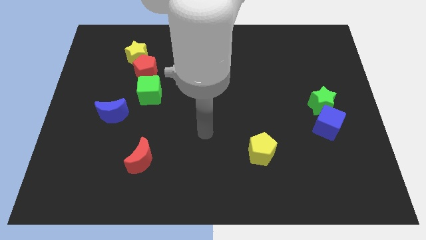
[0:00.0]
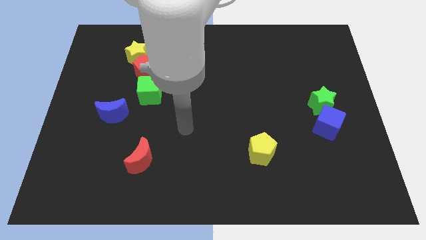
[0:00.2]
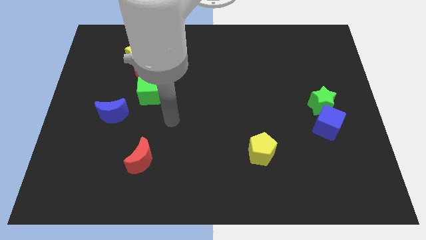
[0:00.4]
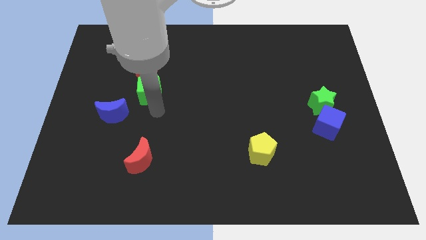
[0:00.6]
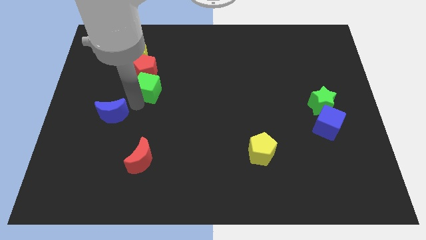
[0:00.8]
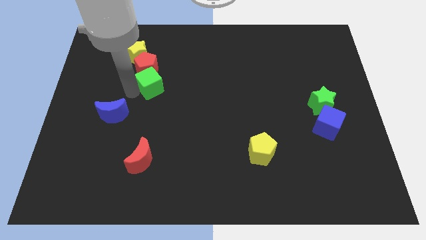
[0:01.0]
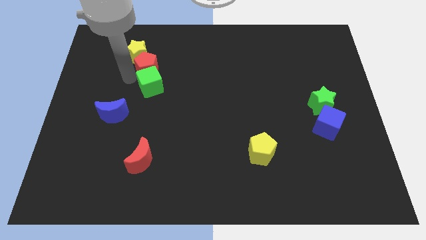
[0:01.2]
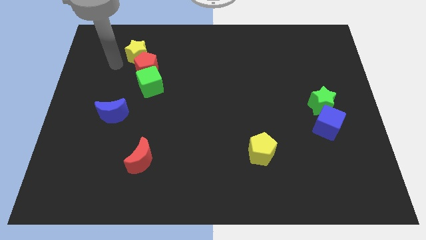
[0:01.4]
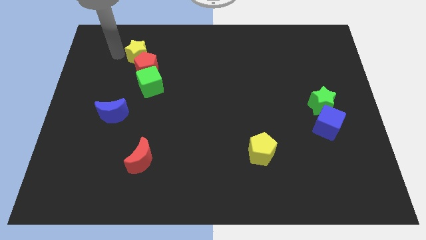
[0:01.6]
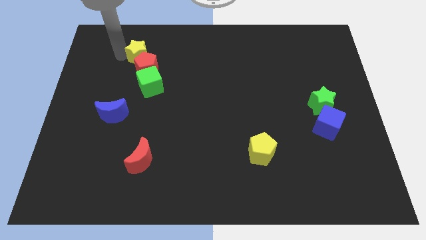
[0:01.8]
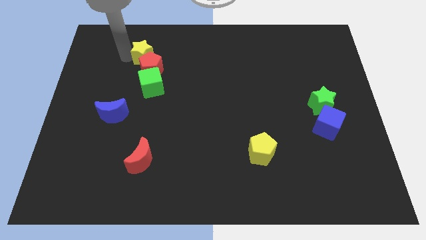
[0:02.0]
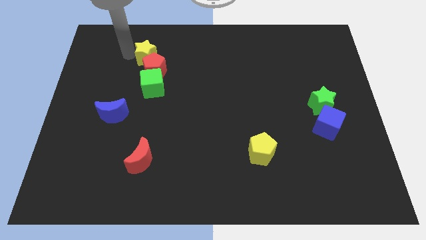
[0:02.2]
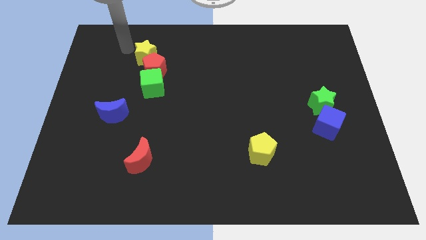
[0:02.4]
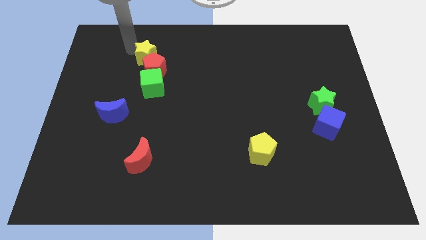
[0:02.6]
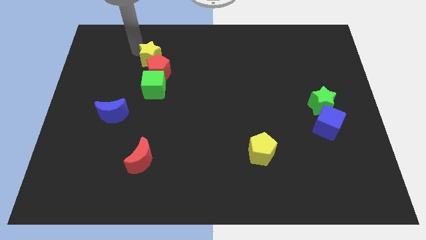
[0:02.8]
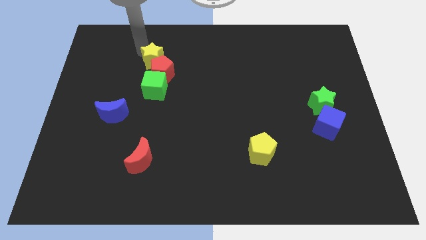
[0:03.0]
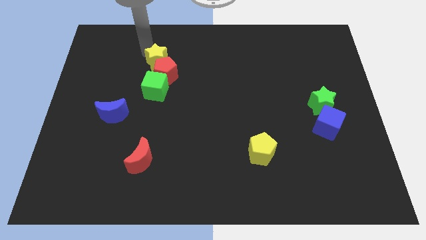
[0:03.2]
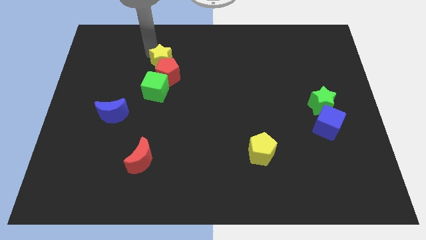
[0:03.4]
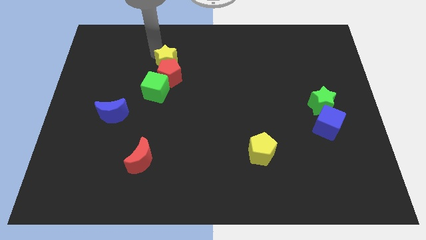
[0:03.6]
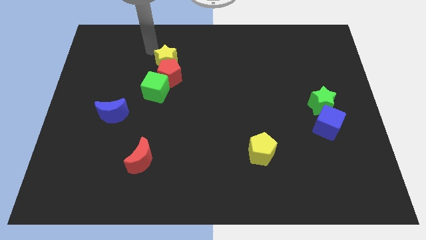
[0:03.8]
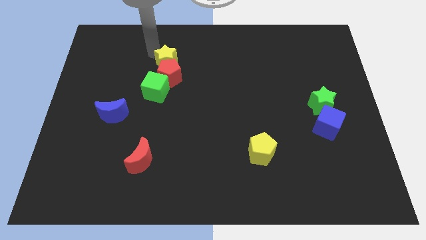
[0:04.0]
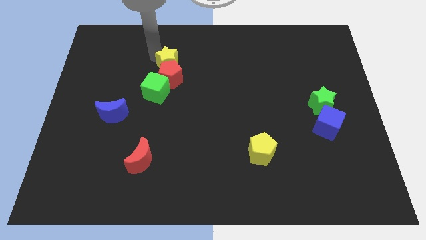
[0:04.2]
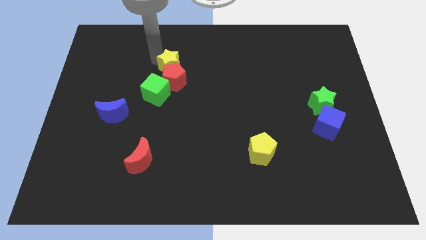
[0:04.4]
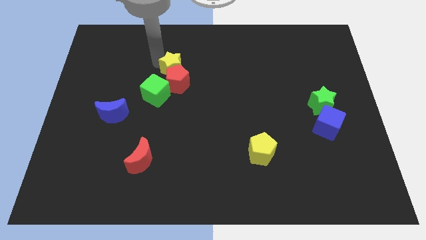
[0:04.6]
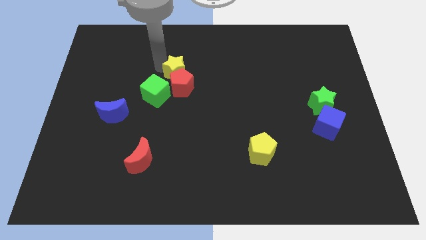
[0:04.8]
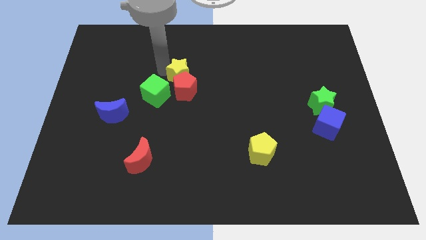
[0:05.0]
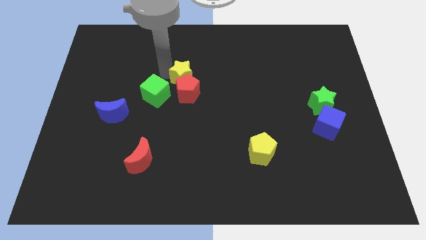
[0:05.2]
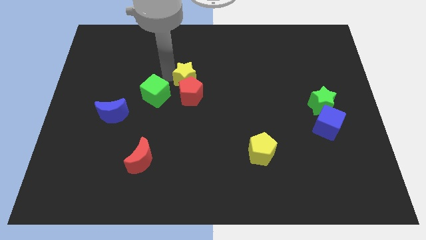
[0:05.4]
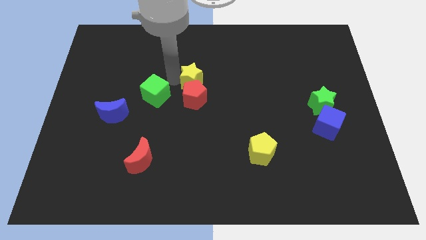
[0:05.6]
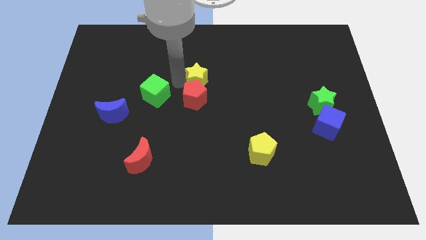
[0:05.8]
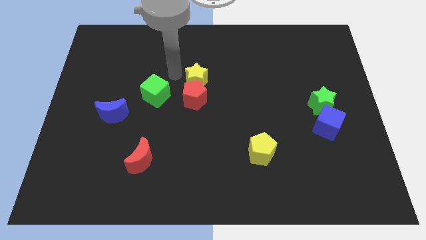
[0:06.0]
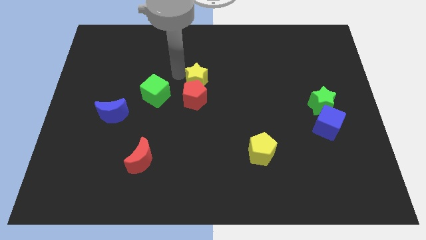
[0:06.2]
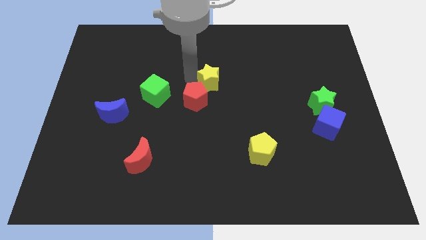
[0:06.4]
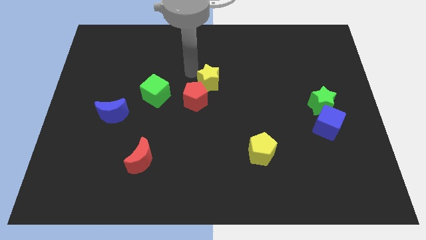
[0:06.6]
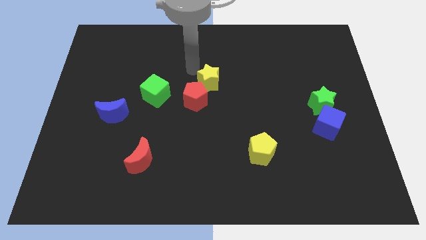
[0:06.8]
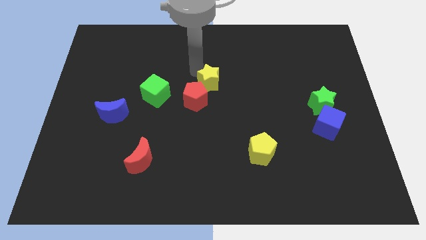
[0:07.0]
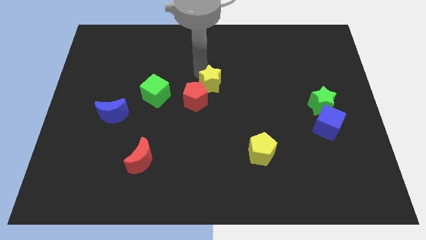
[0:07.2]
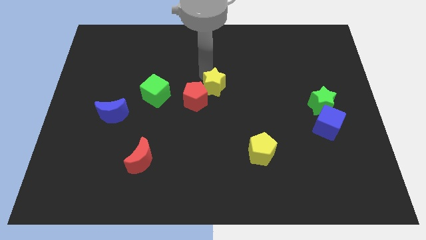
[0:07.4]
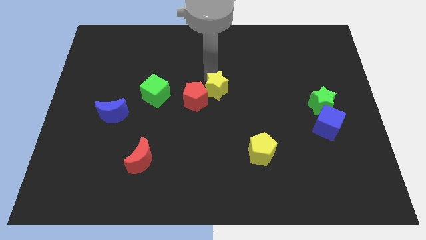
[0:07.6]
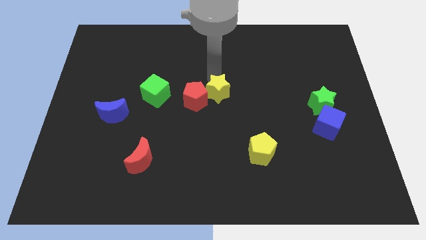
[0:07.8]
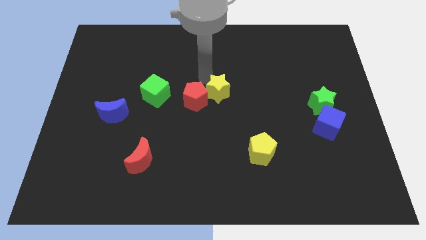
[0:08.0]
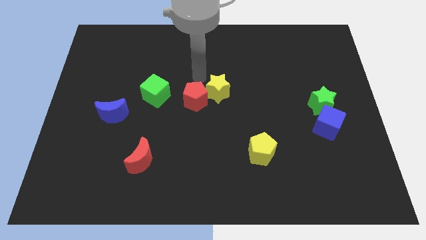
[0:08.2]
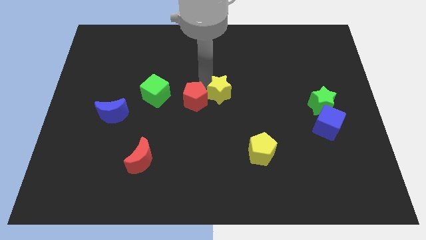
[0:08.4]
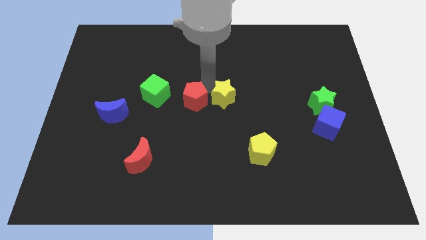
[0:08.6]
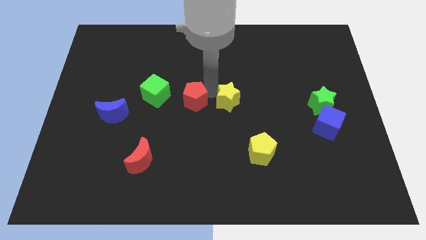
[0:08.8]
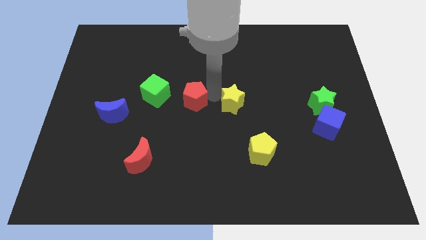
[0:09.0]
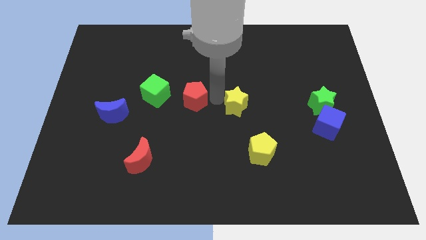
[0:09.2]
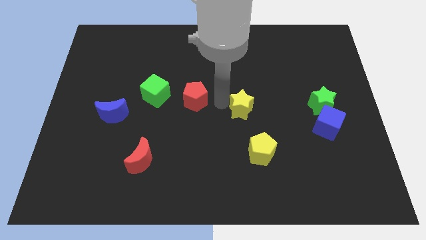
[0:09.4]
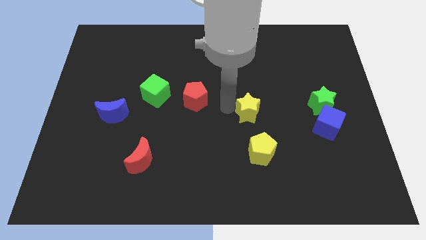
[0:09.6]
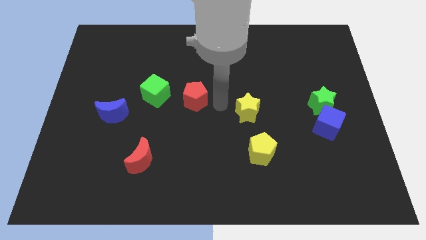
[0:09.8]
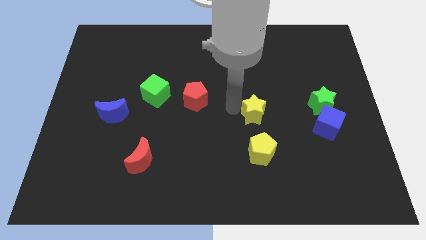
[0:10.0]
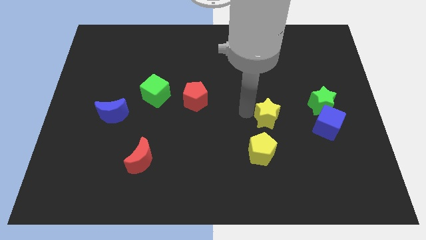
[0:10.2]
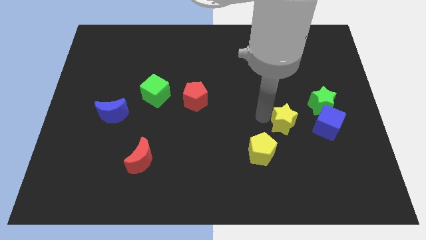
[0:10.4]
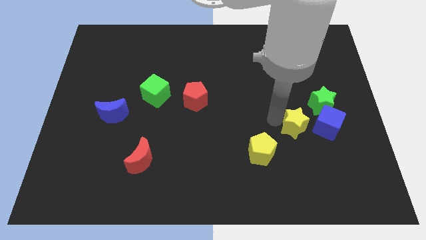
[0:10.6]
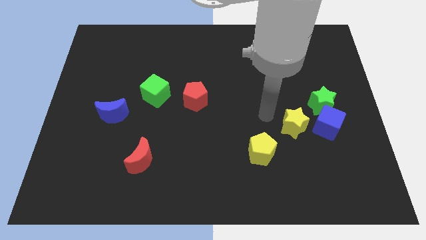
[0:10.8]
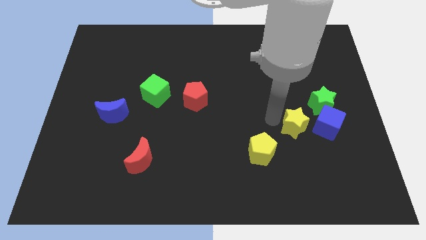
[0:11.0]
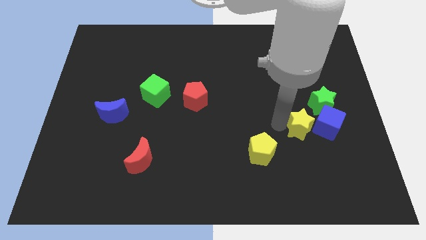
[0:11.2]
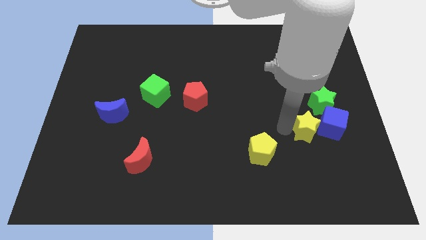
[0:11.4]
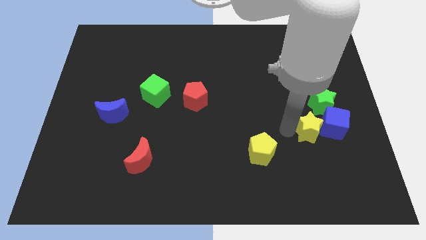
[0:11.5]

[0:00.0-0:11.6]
push the yellow star close to the blue cube

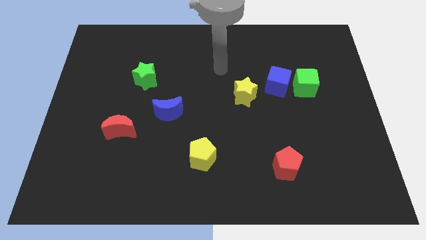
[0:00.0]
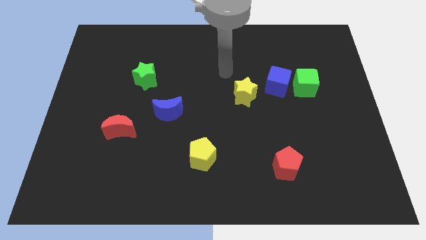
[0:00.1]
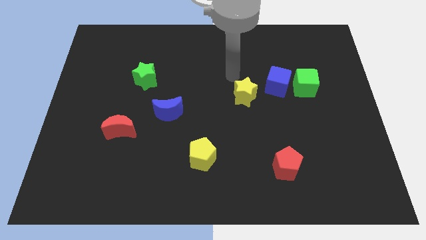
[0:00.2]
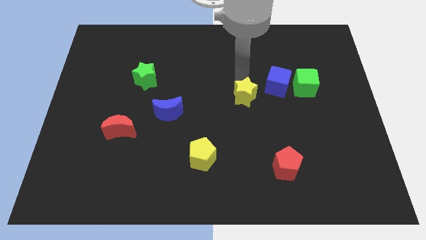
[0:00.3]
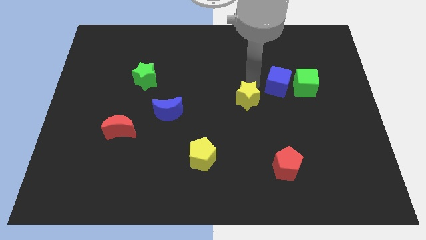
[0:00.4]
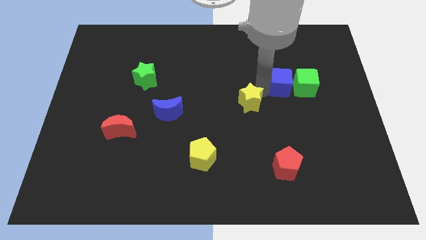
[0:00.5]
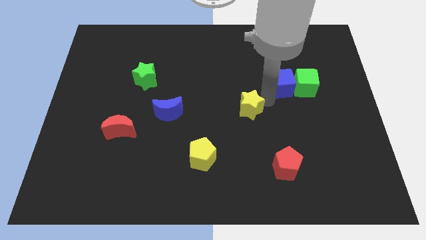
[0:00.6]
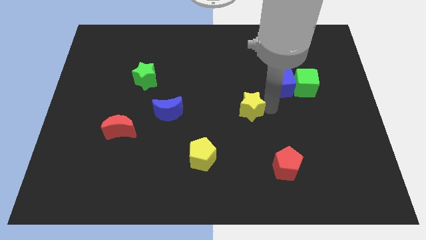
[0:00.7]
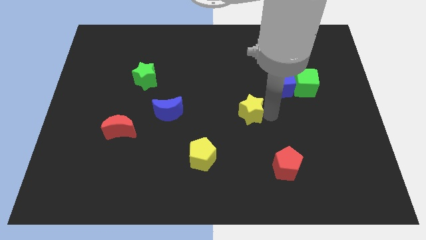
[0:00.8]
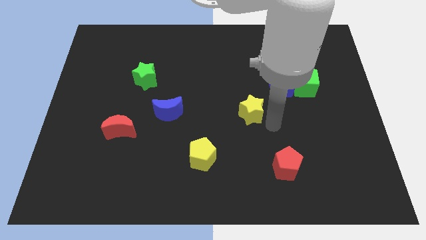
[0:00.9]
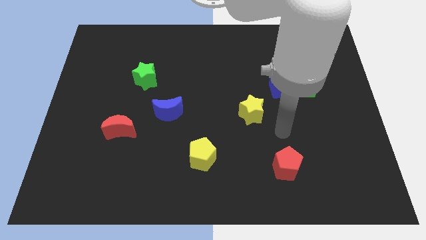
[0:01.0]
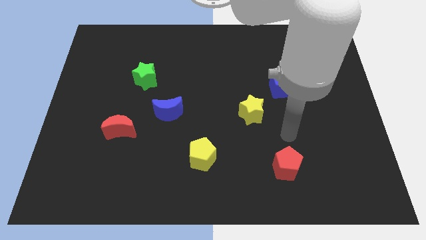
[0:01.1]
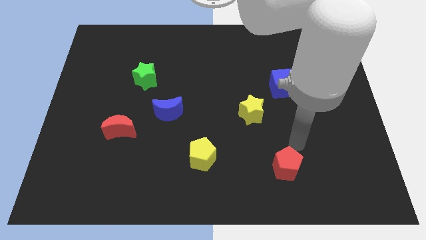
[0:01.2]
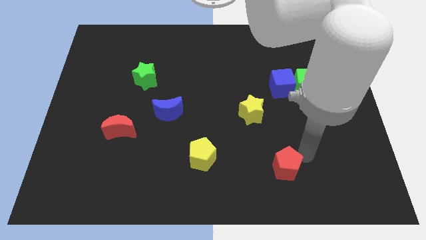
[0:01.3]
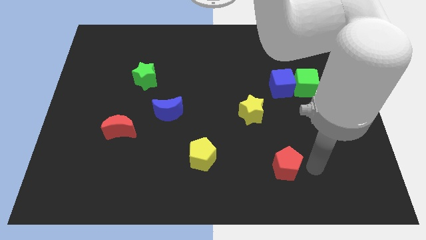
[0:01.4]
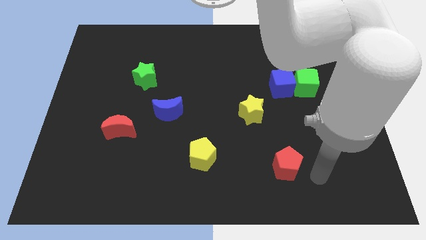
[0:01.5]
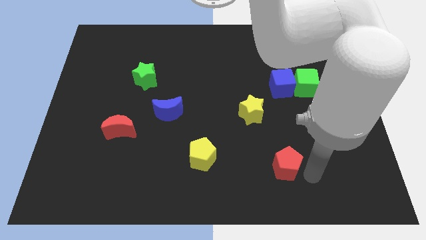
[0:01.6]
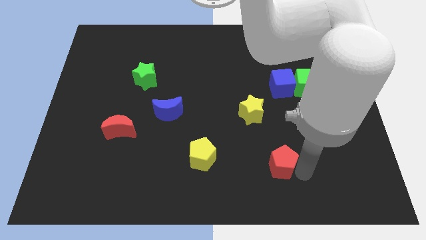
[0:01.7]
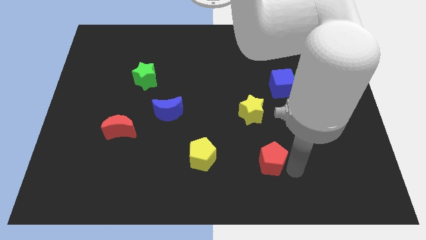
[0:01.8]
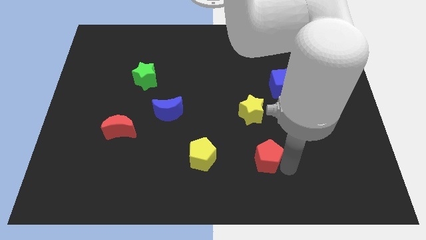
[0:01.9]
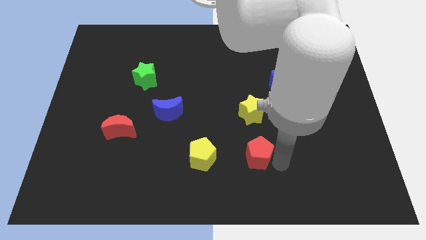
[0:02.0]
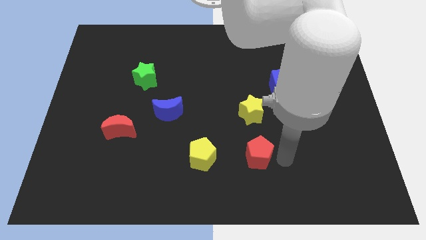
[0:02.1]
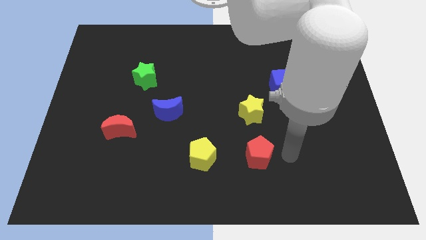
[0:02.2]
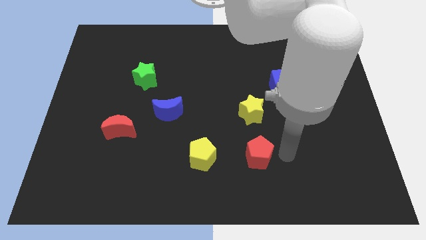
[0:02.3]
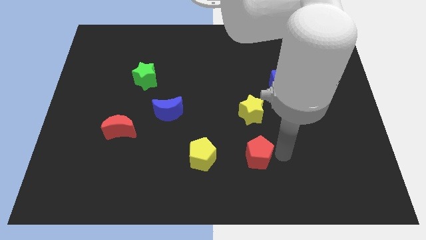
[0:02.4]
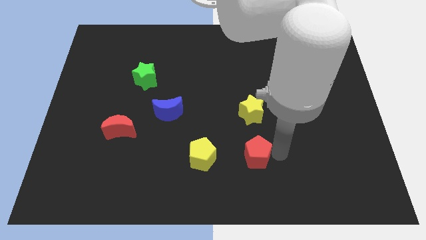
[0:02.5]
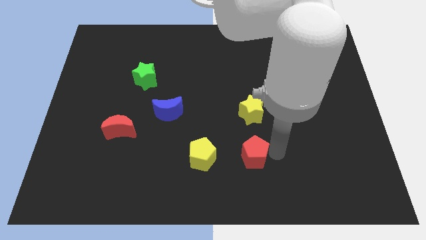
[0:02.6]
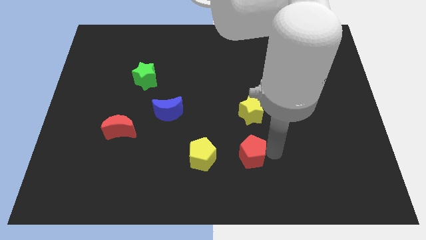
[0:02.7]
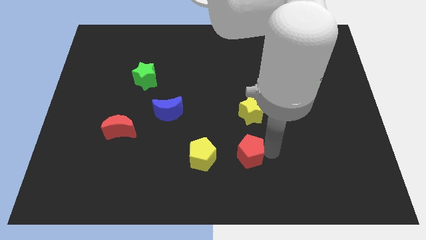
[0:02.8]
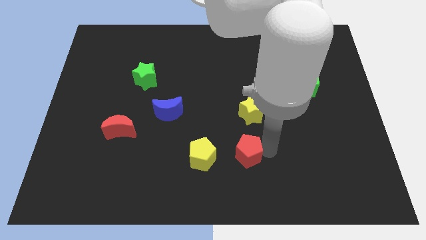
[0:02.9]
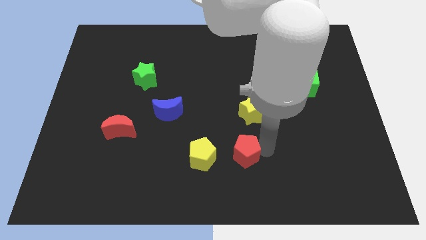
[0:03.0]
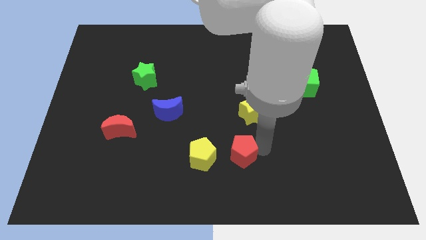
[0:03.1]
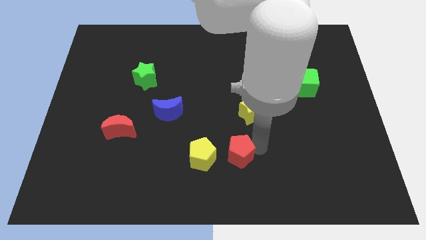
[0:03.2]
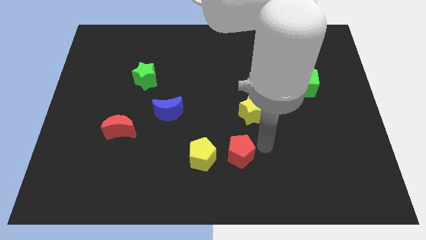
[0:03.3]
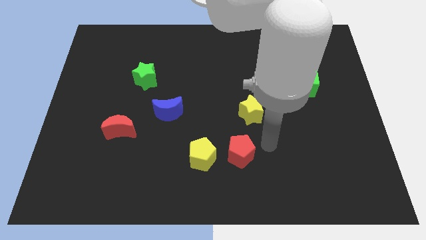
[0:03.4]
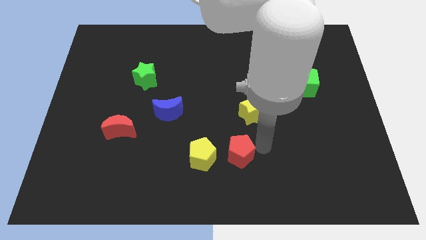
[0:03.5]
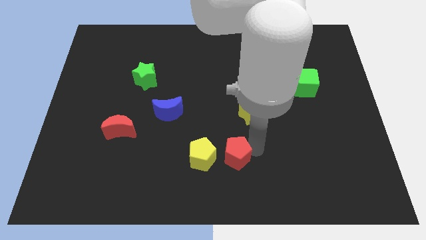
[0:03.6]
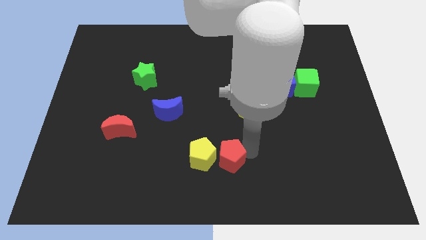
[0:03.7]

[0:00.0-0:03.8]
put the red pentagon next to the yellow pentagon
